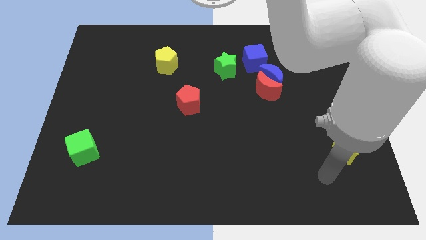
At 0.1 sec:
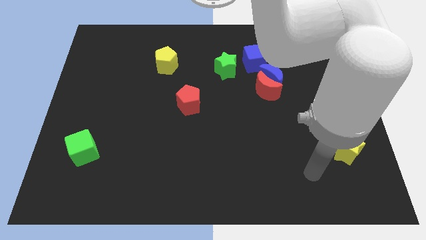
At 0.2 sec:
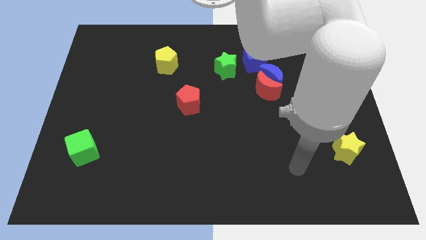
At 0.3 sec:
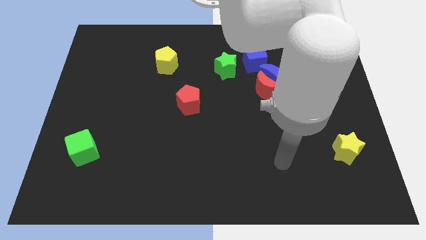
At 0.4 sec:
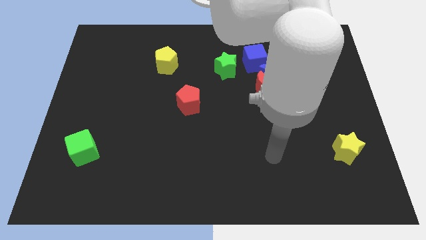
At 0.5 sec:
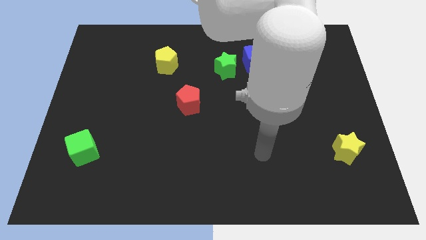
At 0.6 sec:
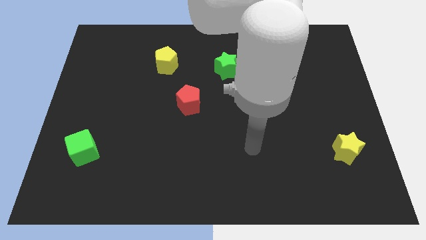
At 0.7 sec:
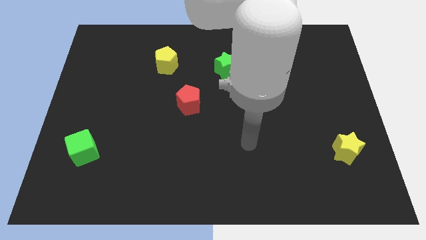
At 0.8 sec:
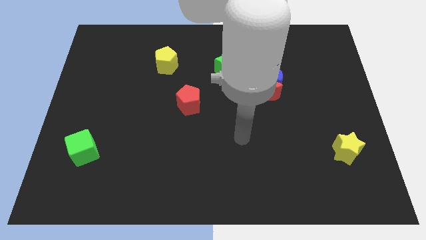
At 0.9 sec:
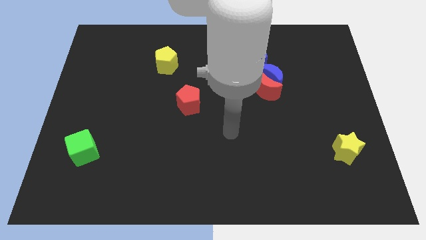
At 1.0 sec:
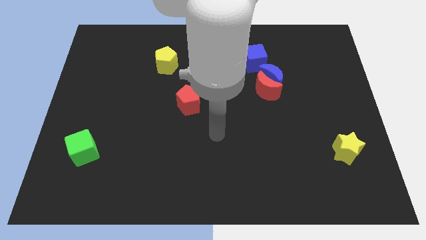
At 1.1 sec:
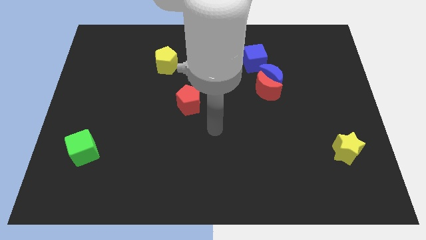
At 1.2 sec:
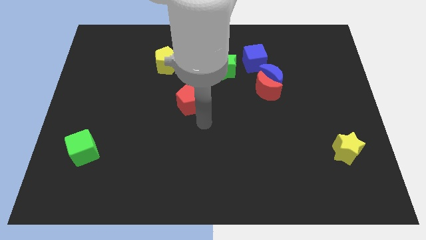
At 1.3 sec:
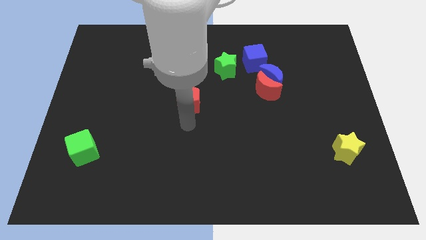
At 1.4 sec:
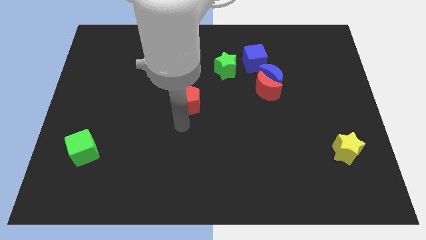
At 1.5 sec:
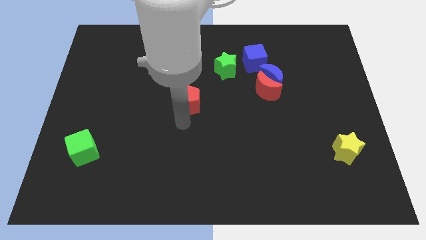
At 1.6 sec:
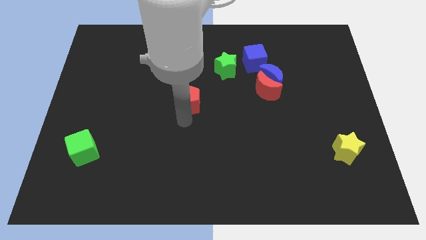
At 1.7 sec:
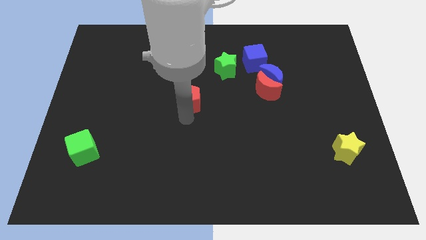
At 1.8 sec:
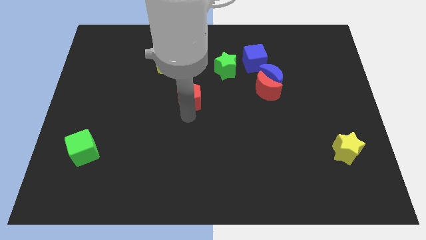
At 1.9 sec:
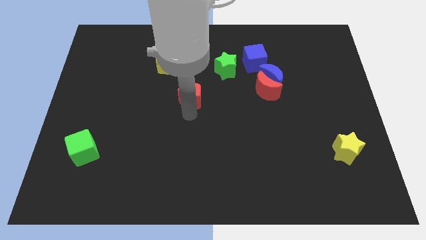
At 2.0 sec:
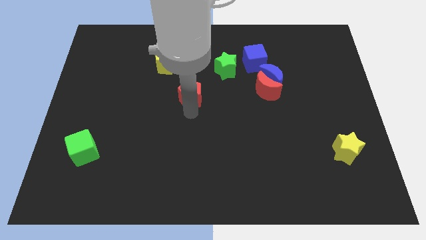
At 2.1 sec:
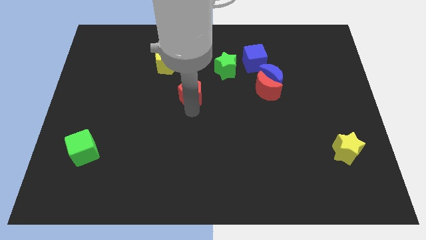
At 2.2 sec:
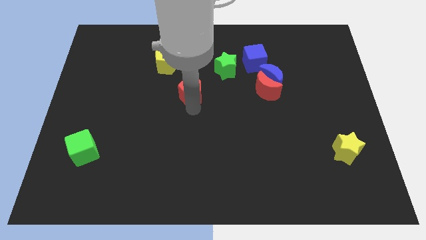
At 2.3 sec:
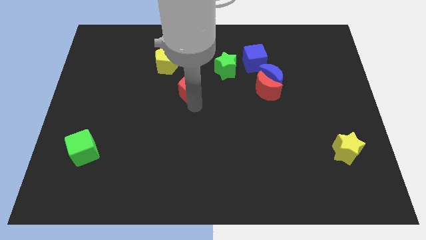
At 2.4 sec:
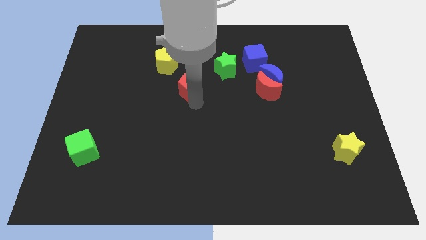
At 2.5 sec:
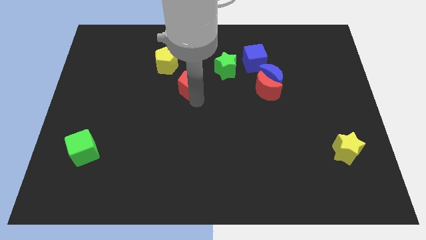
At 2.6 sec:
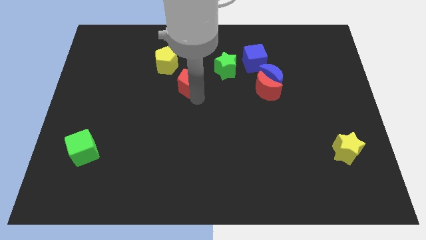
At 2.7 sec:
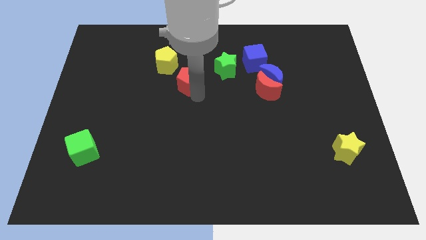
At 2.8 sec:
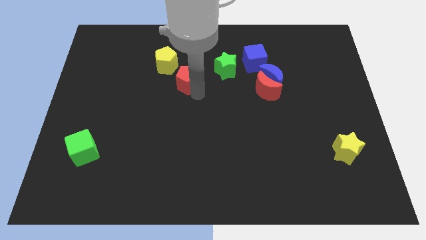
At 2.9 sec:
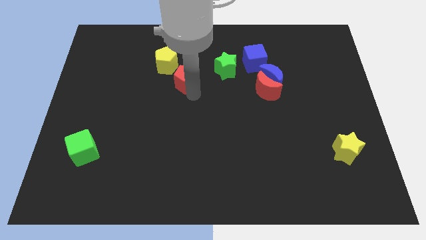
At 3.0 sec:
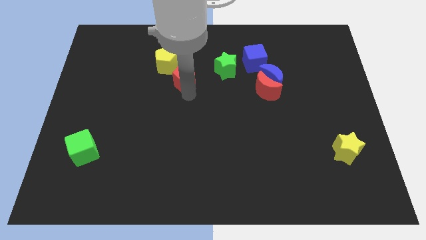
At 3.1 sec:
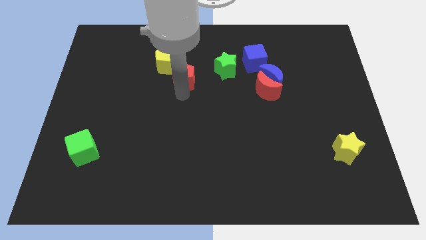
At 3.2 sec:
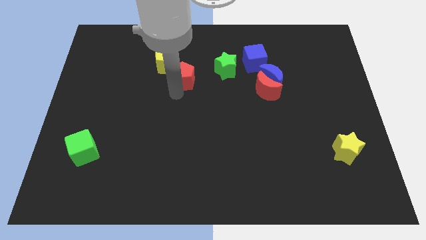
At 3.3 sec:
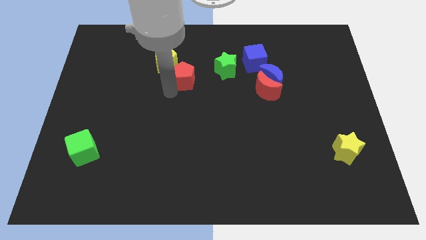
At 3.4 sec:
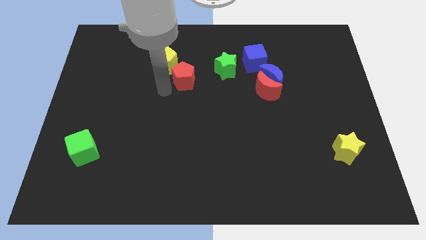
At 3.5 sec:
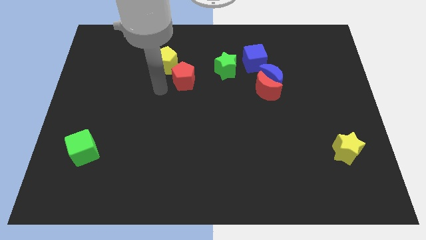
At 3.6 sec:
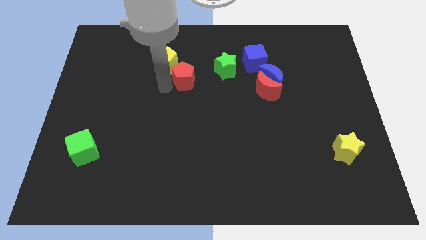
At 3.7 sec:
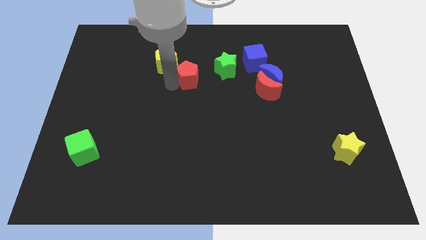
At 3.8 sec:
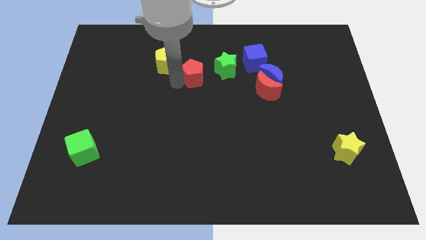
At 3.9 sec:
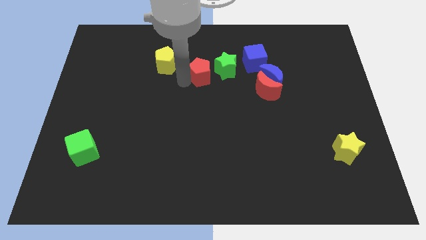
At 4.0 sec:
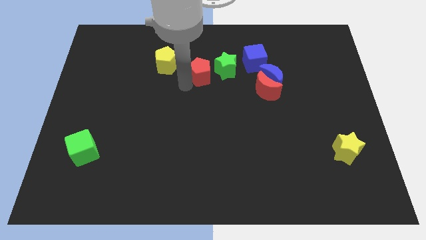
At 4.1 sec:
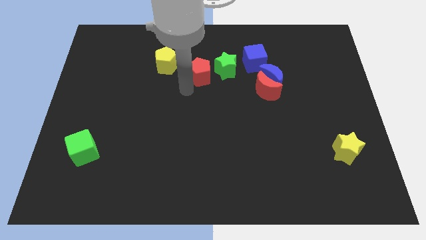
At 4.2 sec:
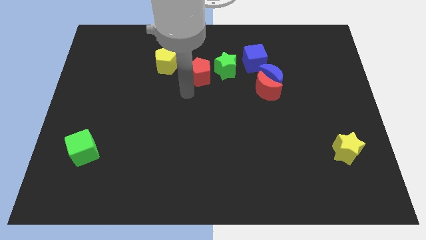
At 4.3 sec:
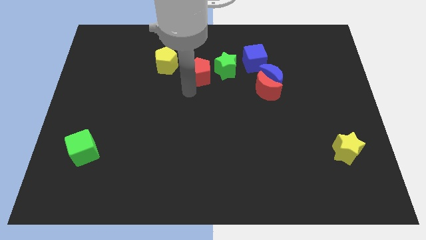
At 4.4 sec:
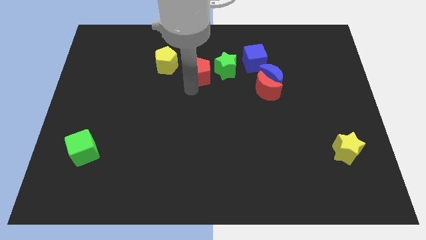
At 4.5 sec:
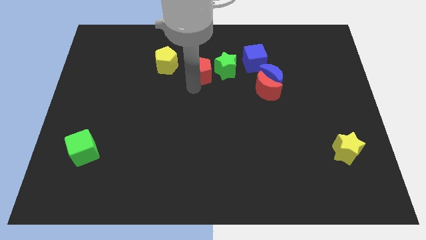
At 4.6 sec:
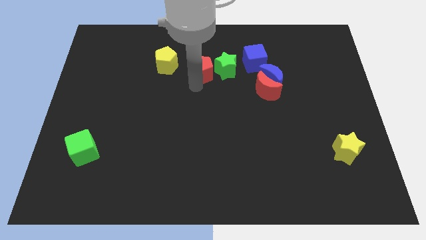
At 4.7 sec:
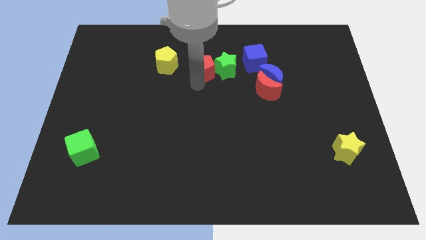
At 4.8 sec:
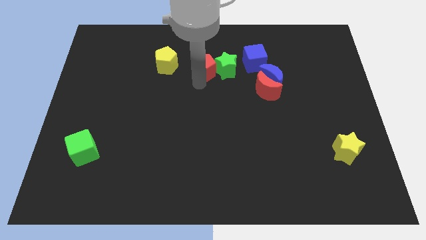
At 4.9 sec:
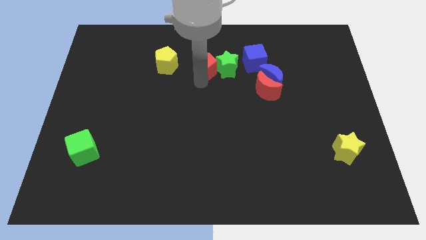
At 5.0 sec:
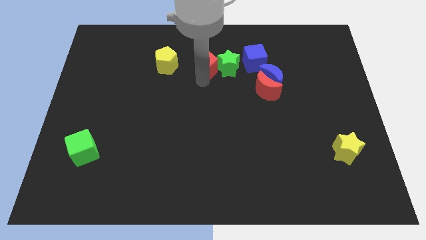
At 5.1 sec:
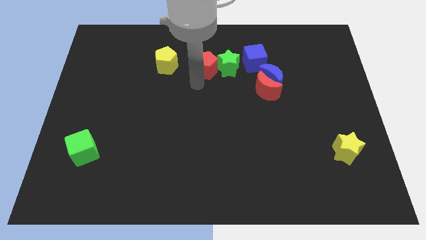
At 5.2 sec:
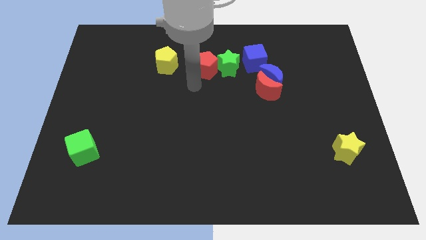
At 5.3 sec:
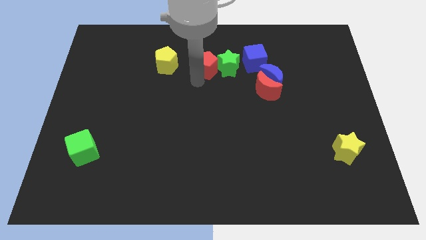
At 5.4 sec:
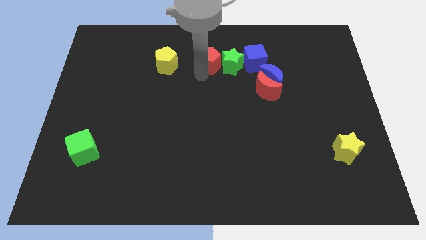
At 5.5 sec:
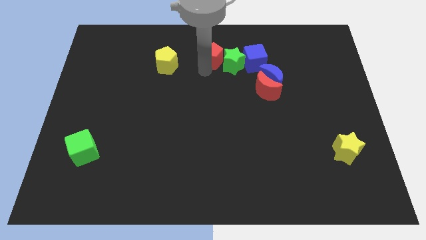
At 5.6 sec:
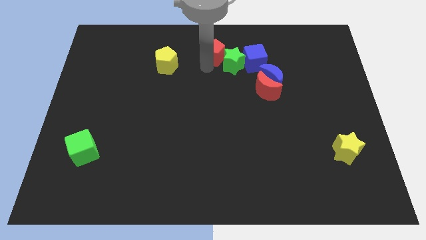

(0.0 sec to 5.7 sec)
move the red pentagon to the top side

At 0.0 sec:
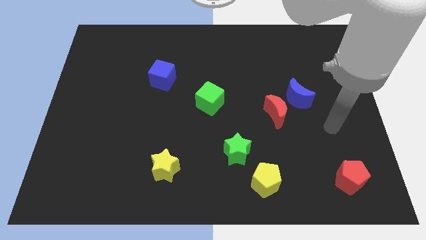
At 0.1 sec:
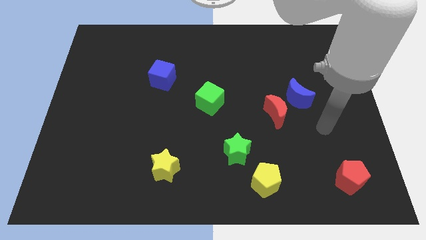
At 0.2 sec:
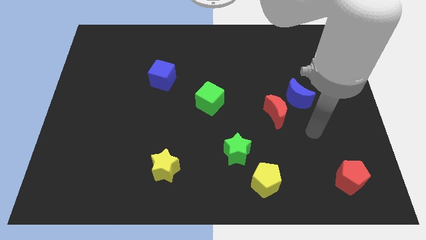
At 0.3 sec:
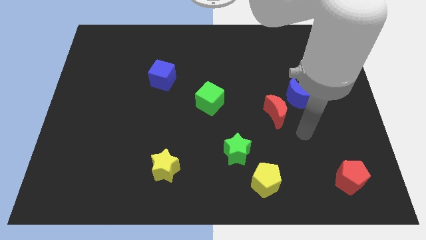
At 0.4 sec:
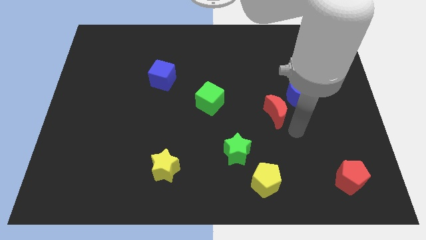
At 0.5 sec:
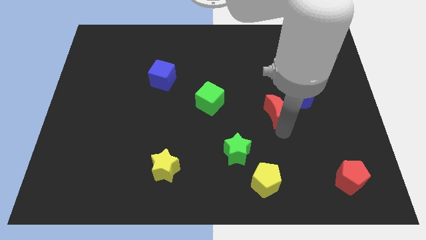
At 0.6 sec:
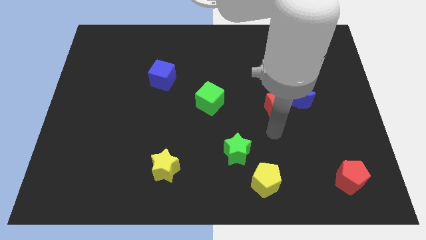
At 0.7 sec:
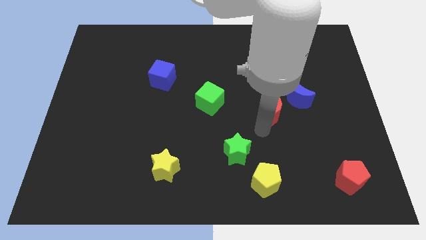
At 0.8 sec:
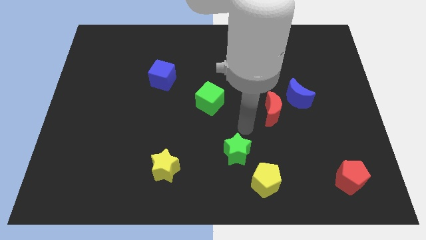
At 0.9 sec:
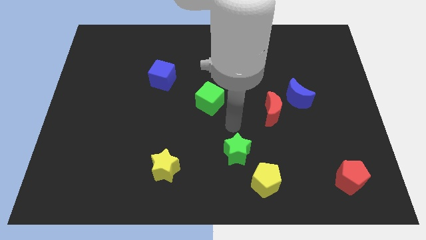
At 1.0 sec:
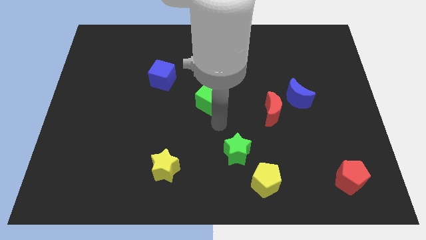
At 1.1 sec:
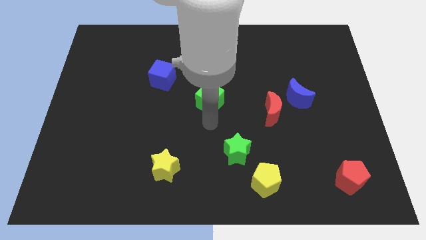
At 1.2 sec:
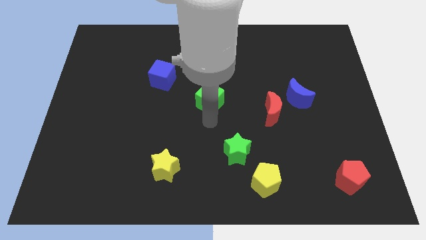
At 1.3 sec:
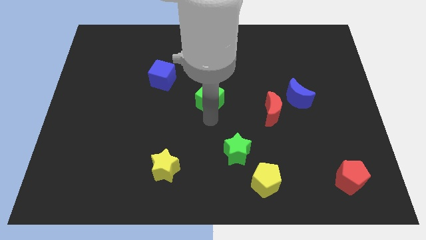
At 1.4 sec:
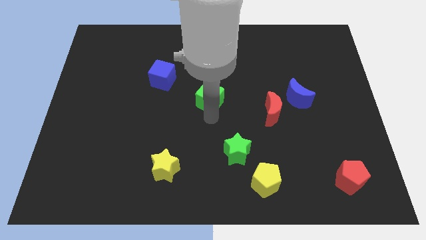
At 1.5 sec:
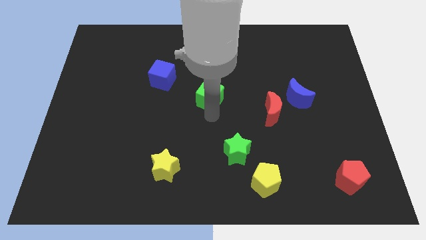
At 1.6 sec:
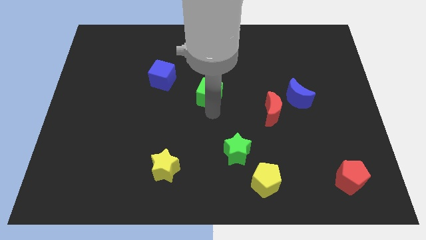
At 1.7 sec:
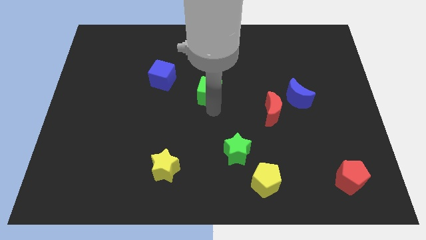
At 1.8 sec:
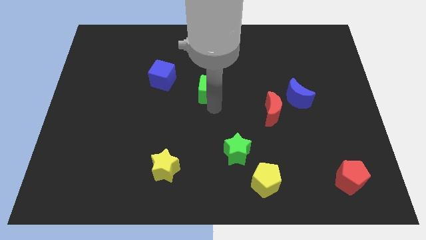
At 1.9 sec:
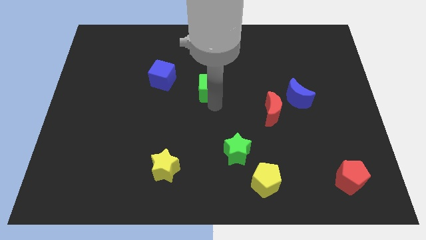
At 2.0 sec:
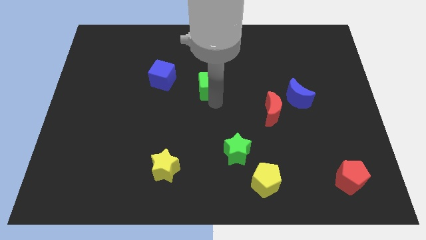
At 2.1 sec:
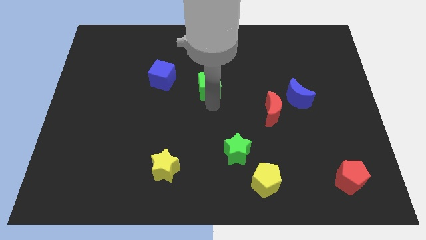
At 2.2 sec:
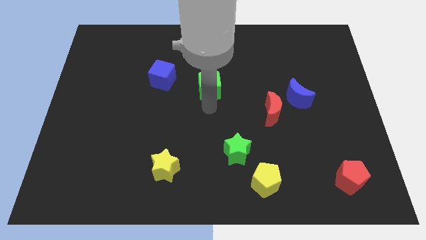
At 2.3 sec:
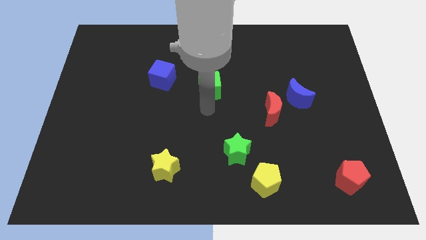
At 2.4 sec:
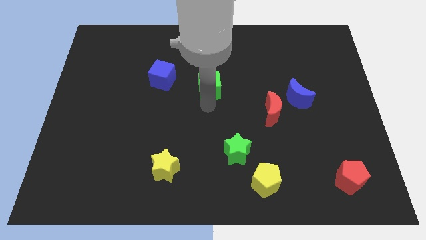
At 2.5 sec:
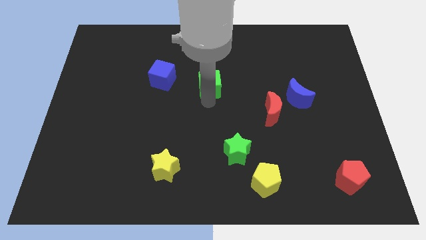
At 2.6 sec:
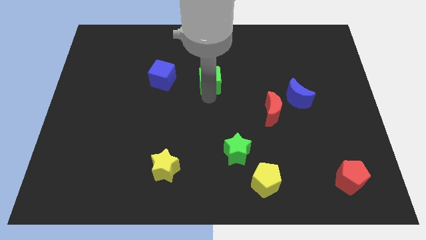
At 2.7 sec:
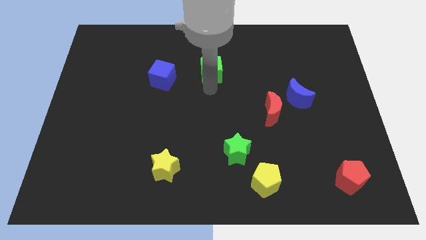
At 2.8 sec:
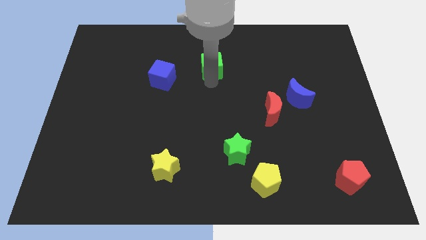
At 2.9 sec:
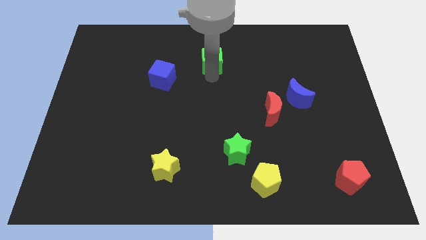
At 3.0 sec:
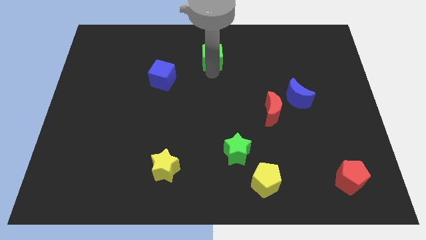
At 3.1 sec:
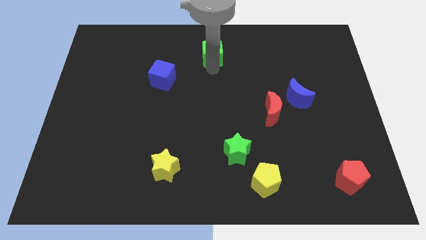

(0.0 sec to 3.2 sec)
put the green cube to the towards your base
